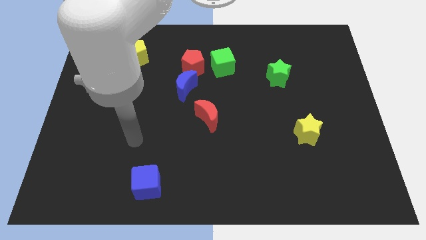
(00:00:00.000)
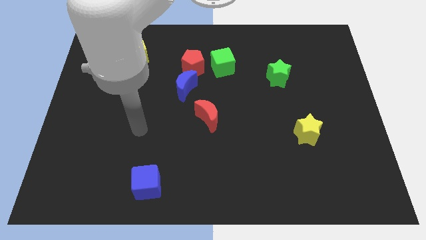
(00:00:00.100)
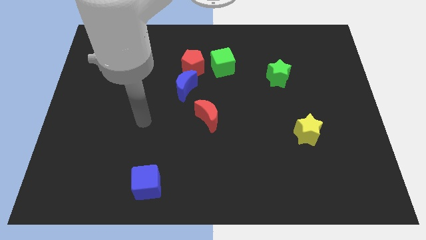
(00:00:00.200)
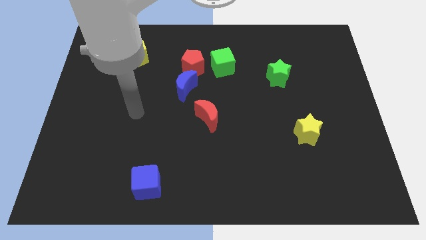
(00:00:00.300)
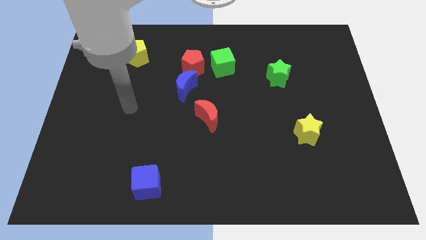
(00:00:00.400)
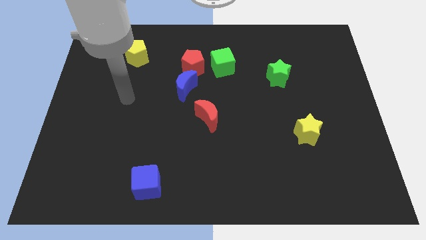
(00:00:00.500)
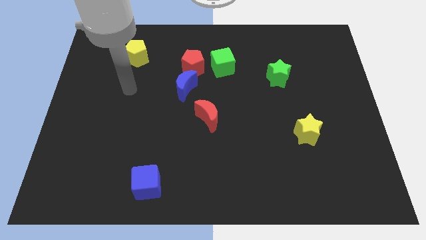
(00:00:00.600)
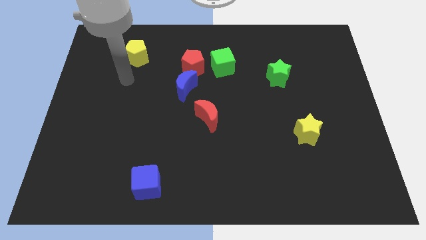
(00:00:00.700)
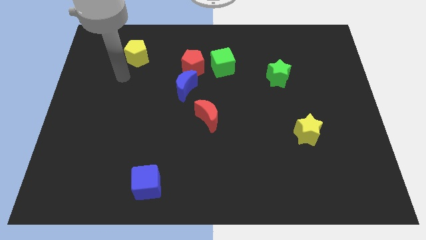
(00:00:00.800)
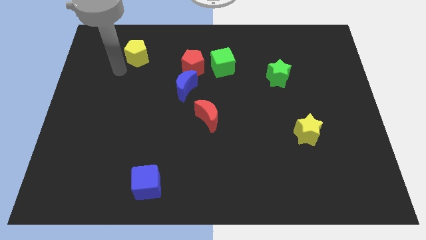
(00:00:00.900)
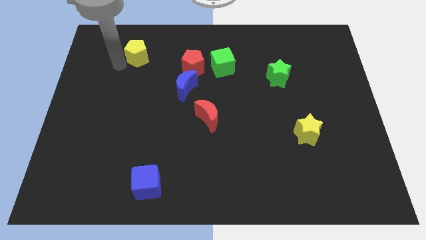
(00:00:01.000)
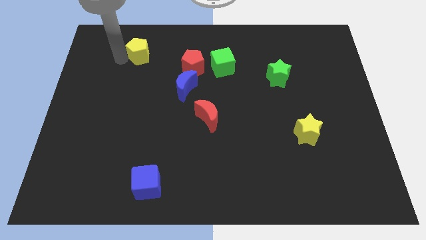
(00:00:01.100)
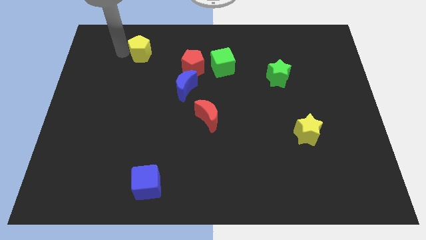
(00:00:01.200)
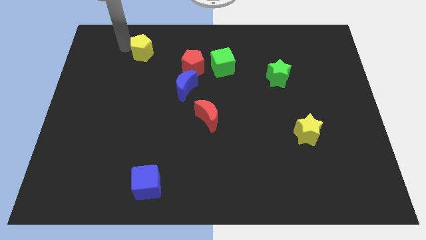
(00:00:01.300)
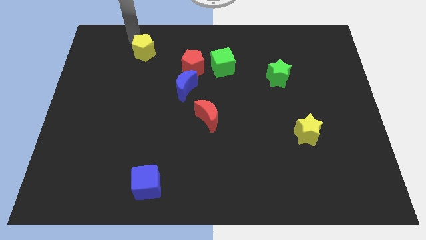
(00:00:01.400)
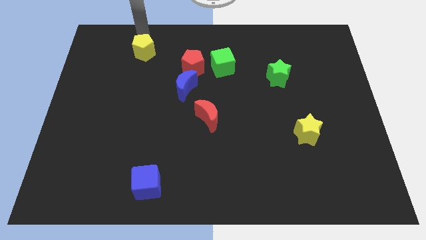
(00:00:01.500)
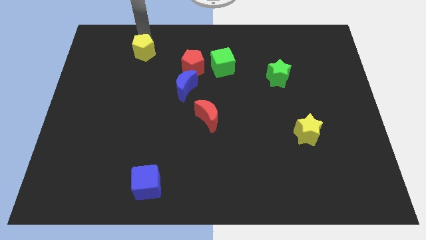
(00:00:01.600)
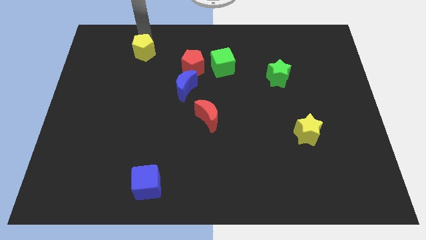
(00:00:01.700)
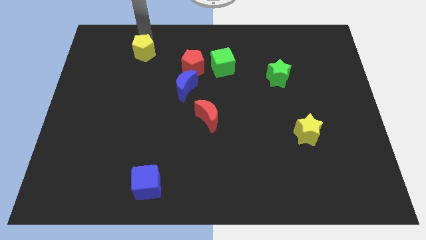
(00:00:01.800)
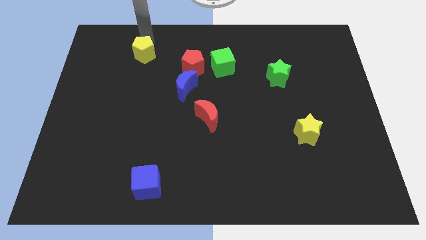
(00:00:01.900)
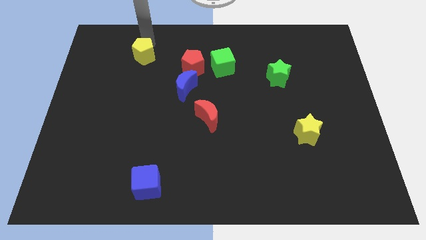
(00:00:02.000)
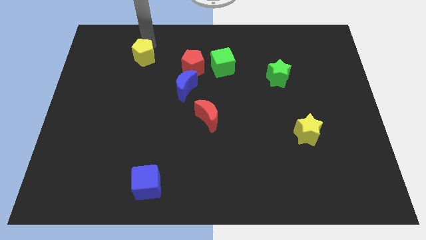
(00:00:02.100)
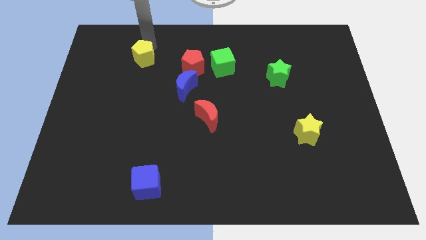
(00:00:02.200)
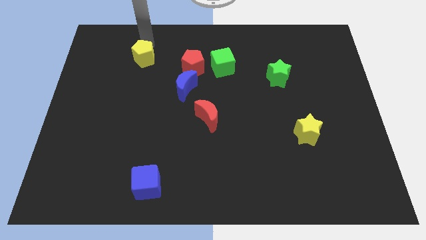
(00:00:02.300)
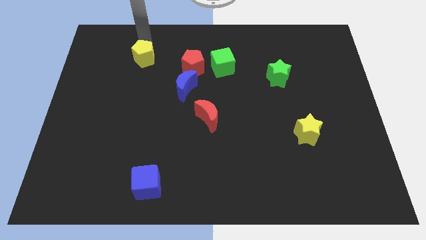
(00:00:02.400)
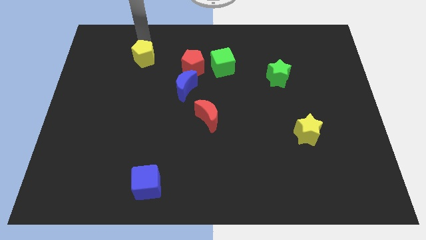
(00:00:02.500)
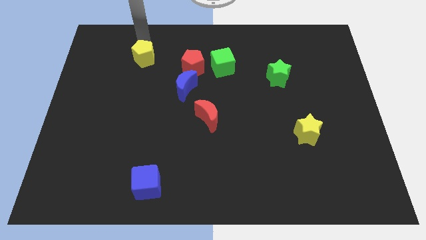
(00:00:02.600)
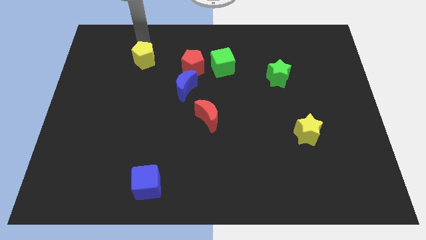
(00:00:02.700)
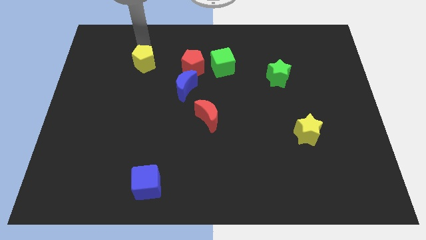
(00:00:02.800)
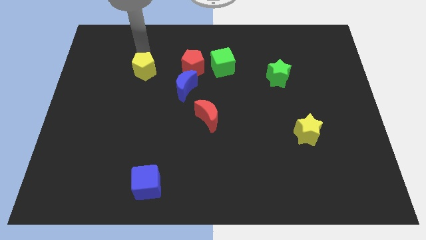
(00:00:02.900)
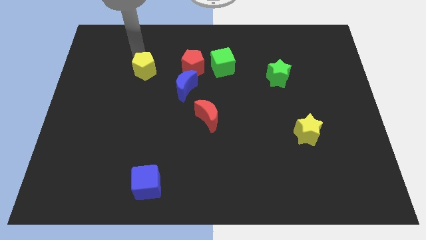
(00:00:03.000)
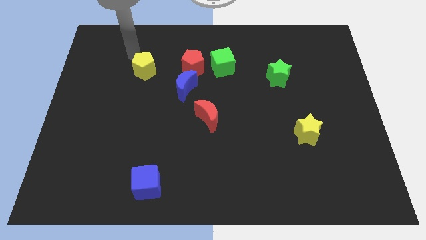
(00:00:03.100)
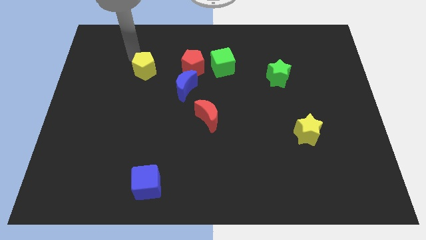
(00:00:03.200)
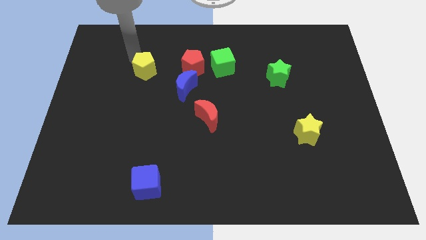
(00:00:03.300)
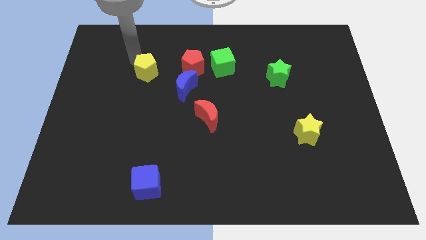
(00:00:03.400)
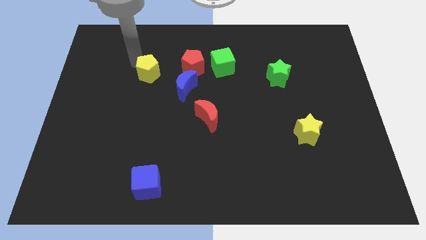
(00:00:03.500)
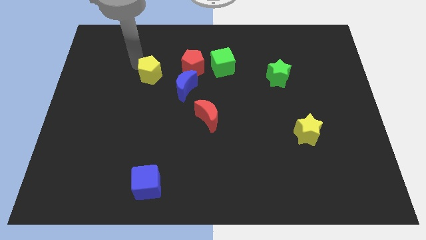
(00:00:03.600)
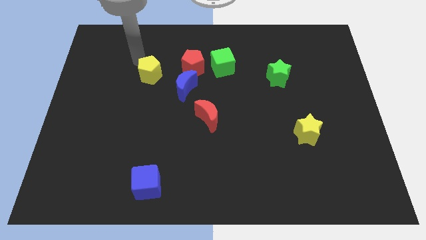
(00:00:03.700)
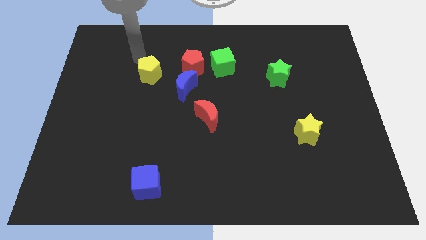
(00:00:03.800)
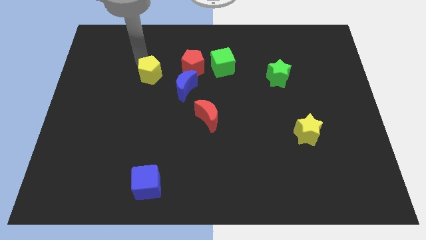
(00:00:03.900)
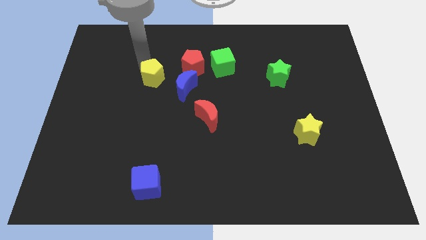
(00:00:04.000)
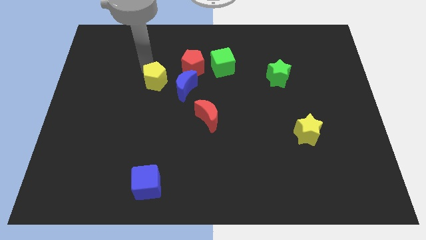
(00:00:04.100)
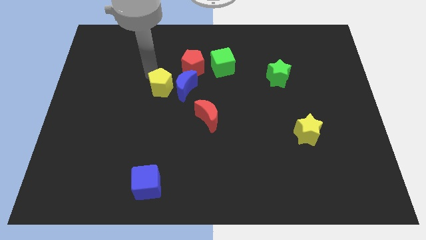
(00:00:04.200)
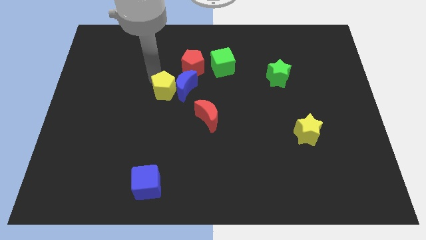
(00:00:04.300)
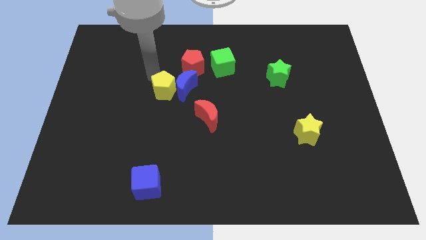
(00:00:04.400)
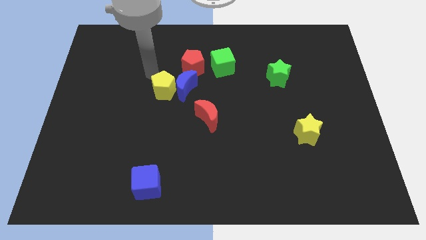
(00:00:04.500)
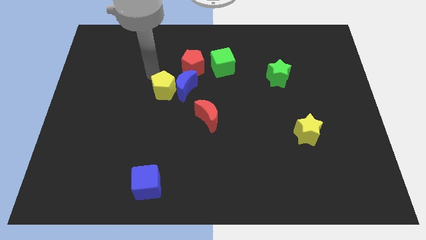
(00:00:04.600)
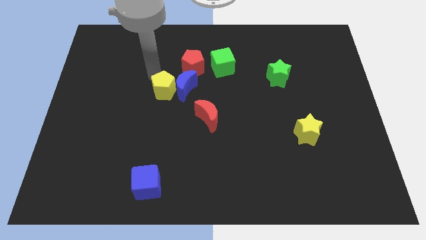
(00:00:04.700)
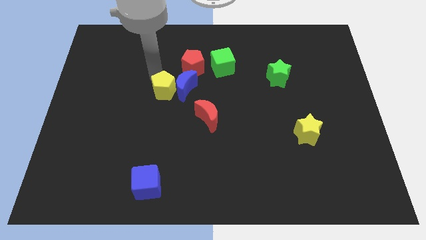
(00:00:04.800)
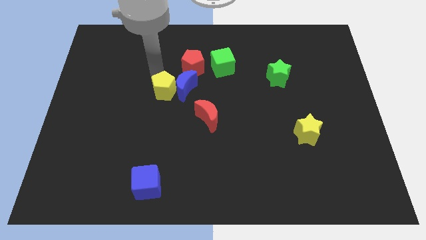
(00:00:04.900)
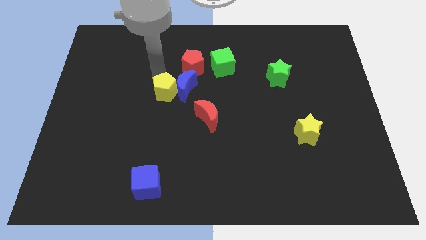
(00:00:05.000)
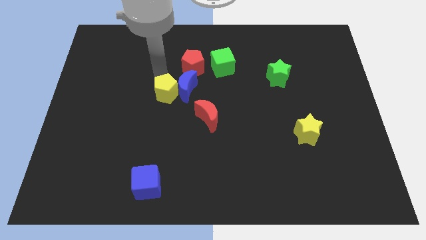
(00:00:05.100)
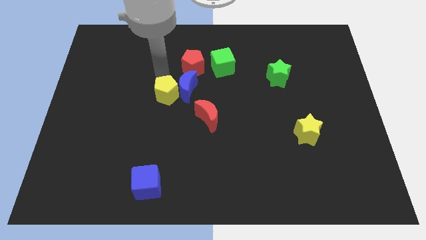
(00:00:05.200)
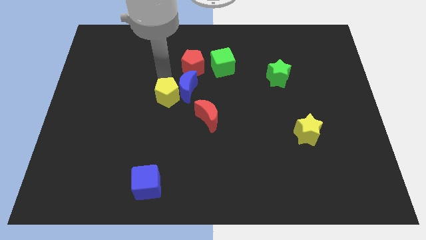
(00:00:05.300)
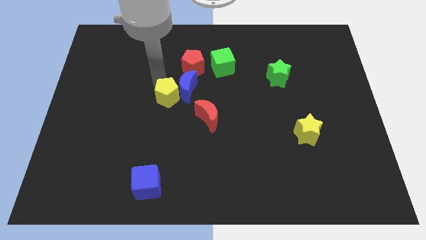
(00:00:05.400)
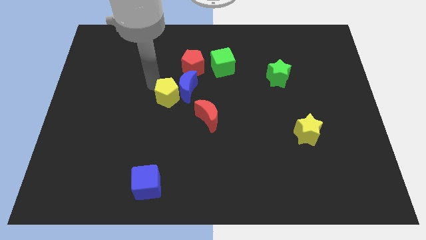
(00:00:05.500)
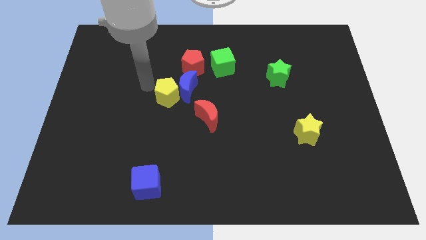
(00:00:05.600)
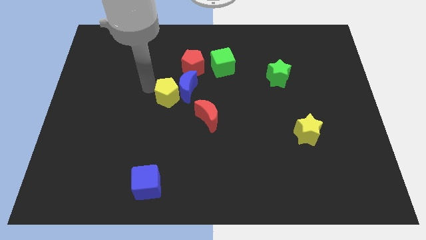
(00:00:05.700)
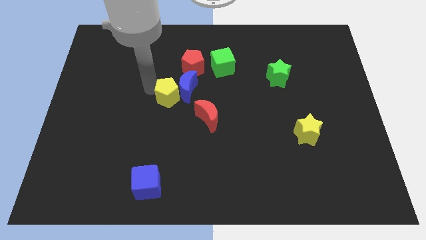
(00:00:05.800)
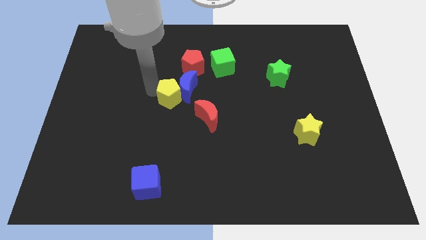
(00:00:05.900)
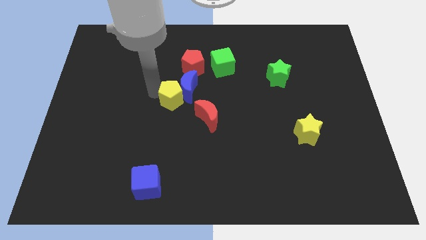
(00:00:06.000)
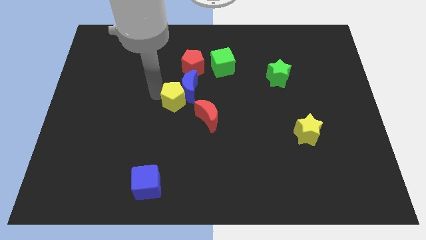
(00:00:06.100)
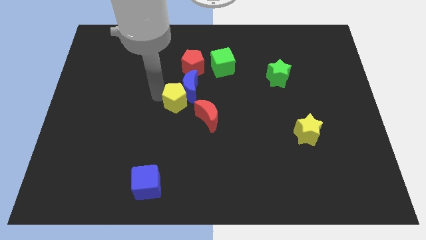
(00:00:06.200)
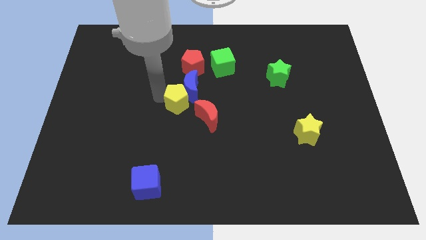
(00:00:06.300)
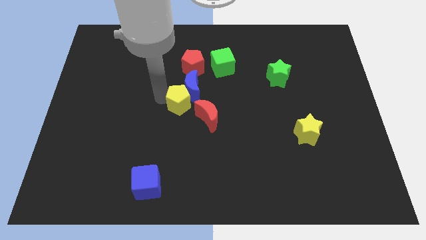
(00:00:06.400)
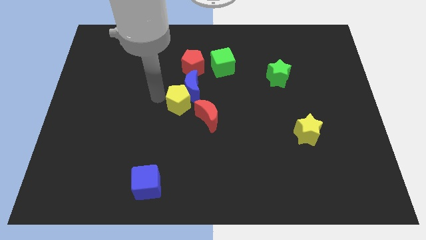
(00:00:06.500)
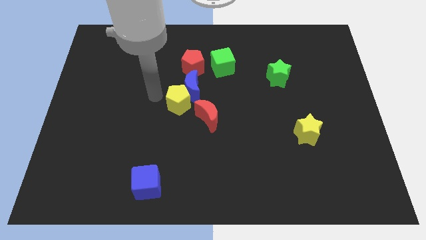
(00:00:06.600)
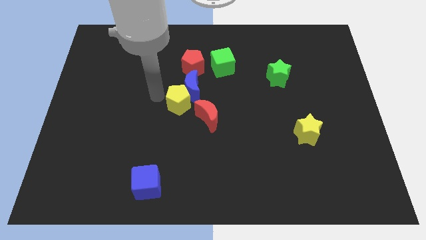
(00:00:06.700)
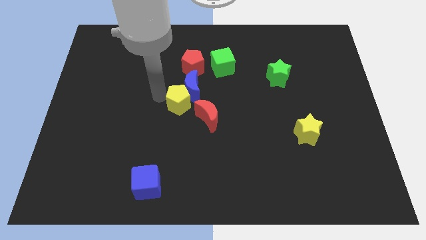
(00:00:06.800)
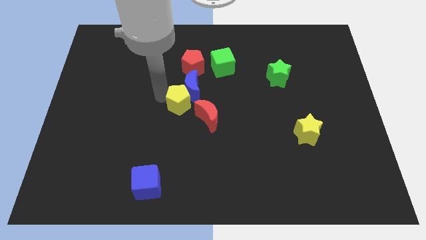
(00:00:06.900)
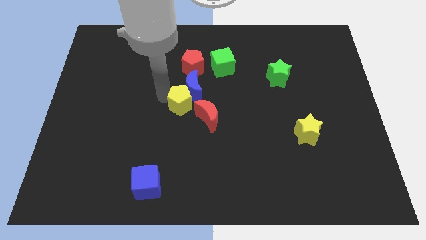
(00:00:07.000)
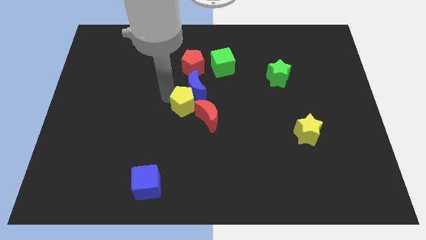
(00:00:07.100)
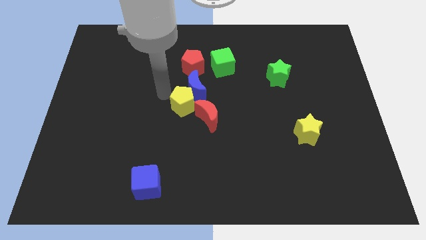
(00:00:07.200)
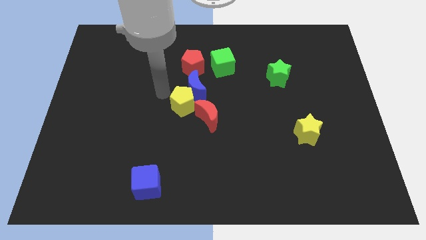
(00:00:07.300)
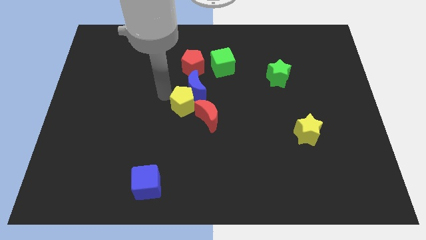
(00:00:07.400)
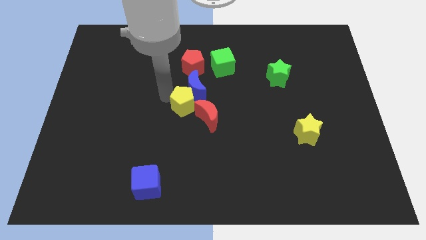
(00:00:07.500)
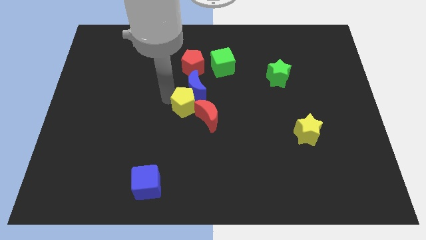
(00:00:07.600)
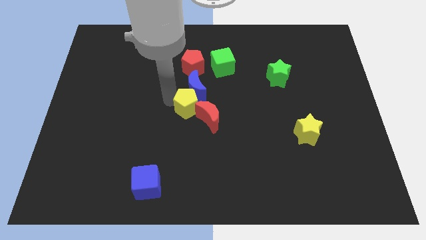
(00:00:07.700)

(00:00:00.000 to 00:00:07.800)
put the yellow pentagon to the red moon

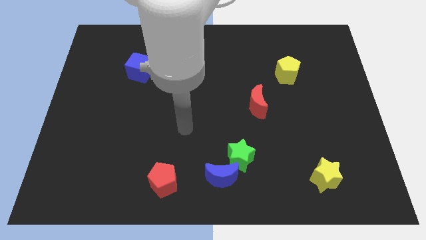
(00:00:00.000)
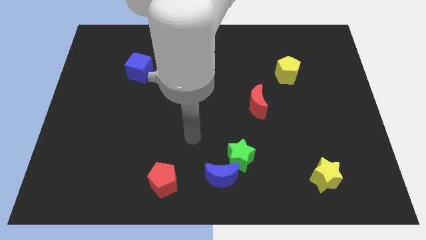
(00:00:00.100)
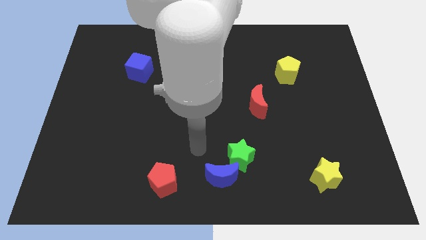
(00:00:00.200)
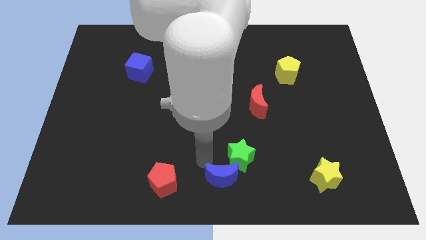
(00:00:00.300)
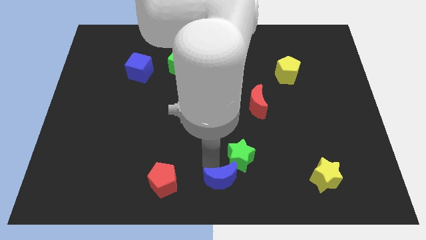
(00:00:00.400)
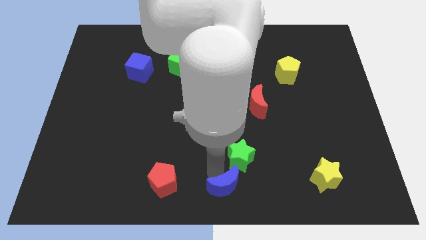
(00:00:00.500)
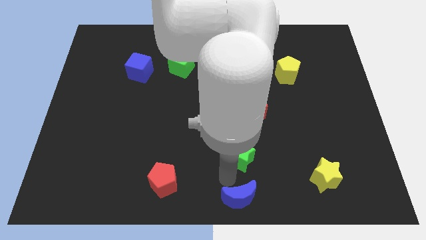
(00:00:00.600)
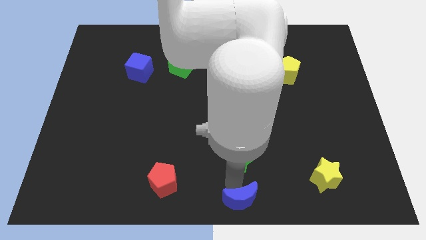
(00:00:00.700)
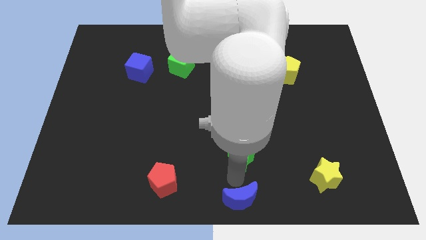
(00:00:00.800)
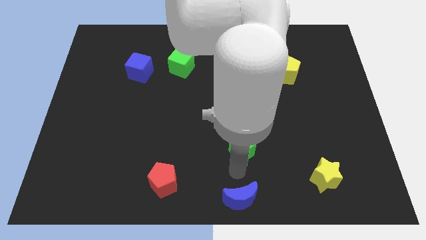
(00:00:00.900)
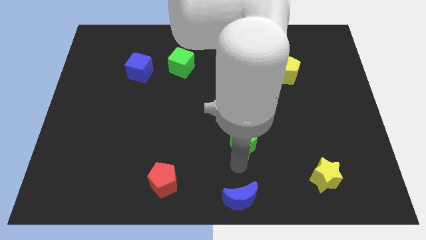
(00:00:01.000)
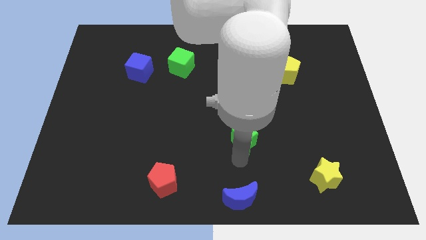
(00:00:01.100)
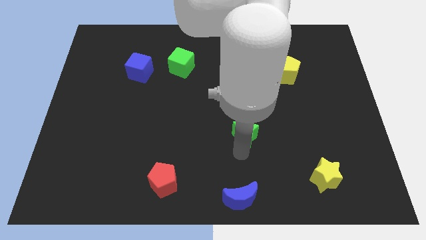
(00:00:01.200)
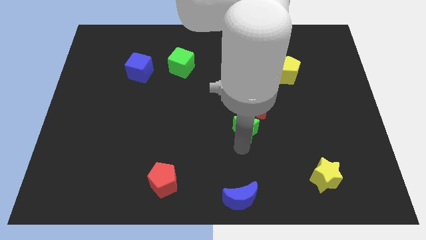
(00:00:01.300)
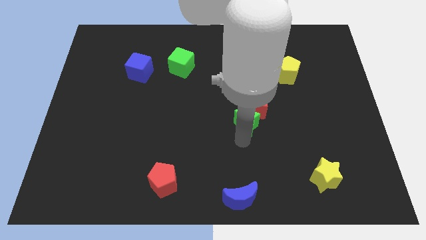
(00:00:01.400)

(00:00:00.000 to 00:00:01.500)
move the green star towards the red moon
